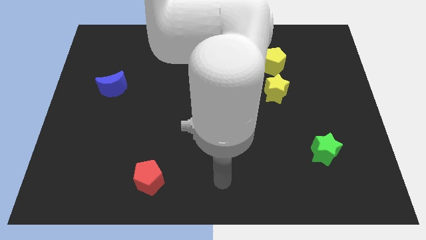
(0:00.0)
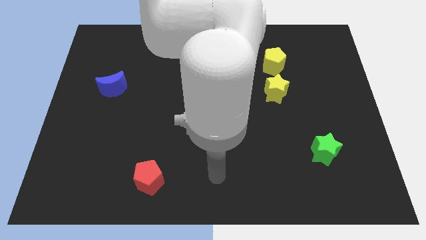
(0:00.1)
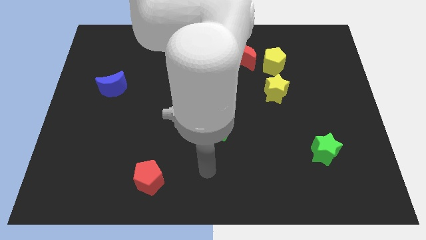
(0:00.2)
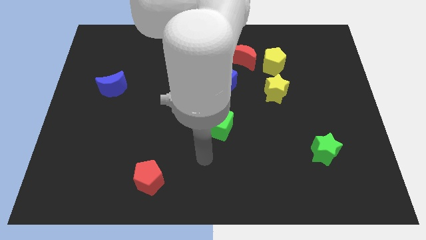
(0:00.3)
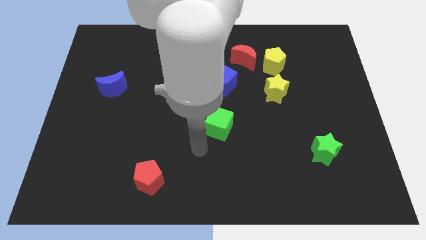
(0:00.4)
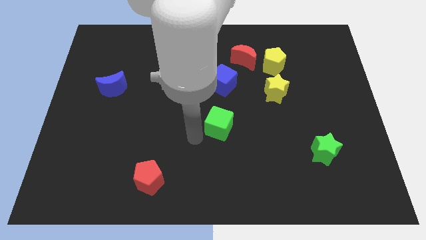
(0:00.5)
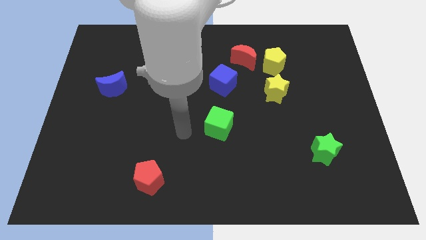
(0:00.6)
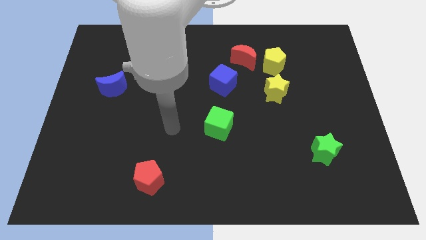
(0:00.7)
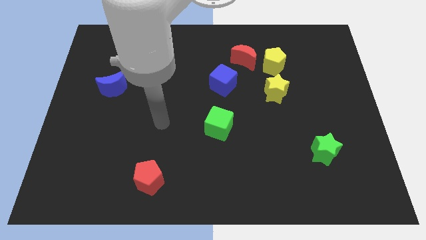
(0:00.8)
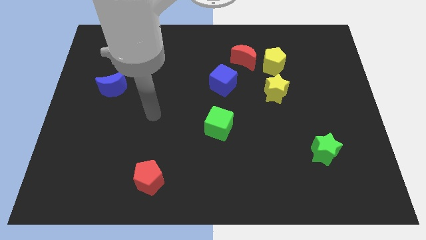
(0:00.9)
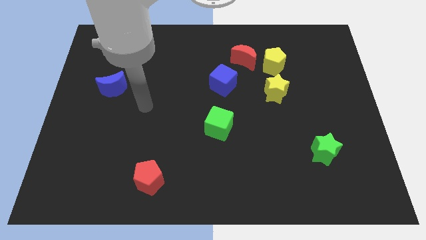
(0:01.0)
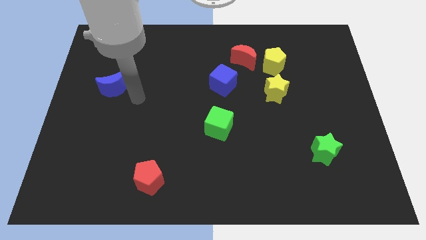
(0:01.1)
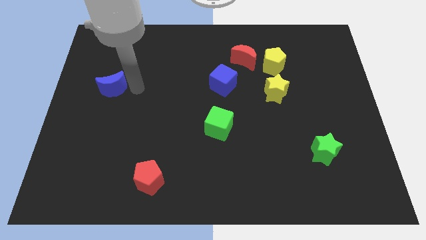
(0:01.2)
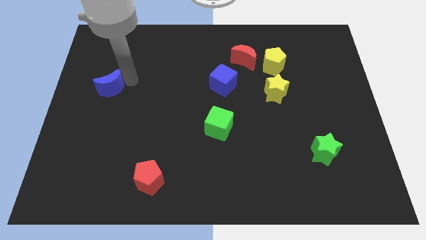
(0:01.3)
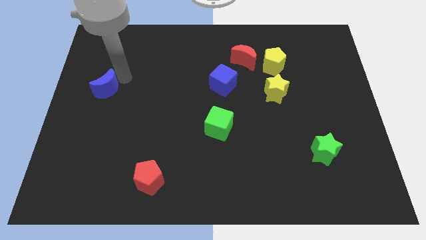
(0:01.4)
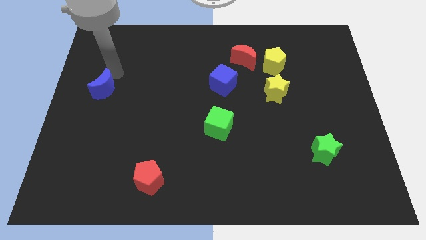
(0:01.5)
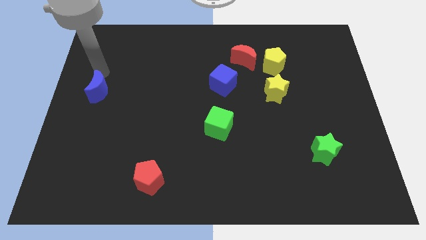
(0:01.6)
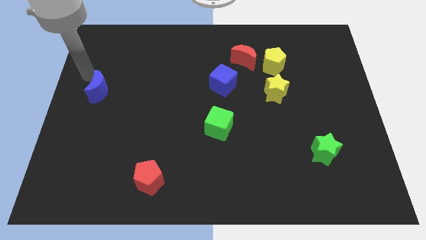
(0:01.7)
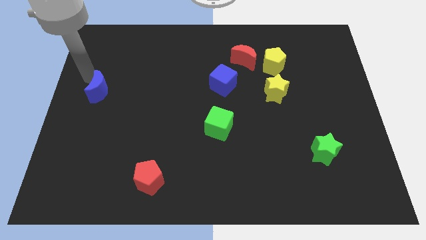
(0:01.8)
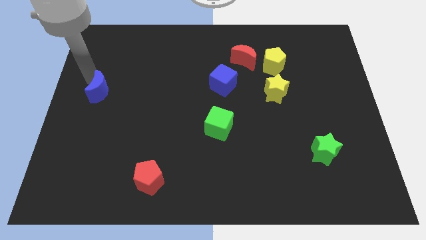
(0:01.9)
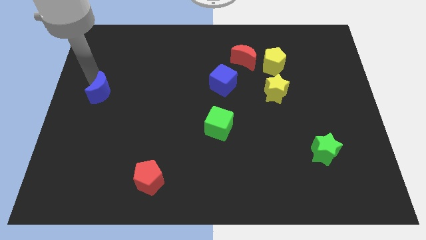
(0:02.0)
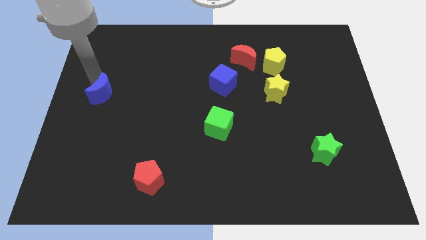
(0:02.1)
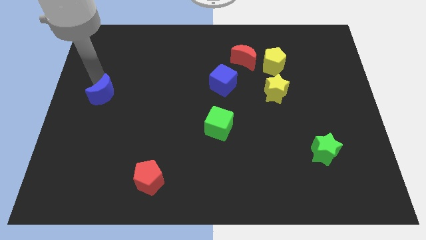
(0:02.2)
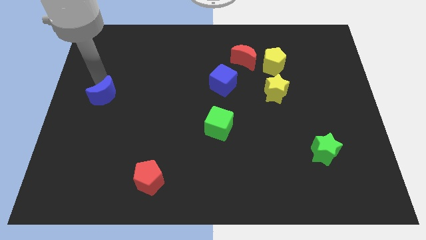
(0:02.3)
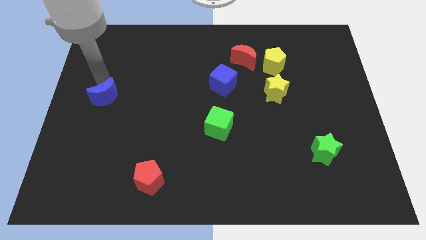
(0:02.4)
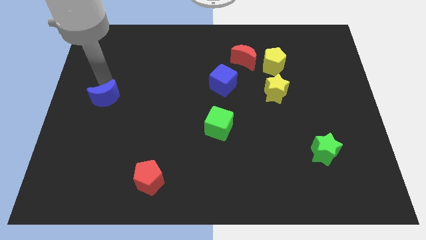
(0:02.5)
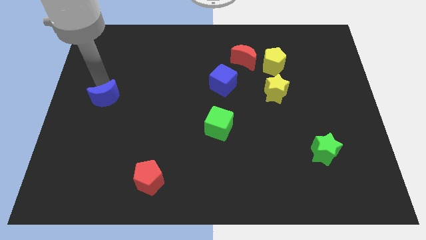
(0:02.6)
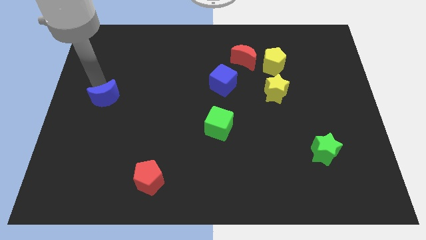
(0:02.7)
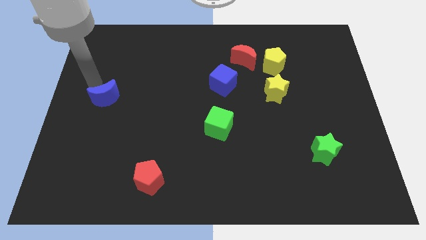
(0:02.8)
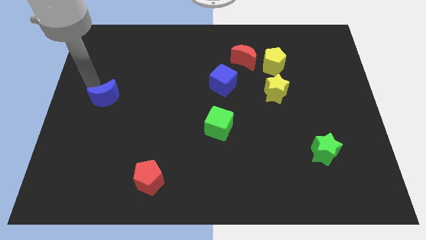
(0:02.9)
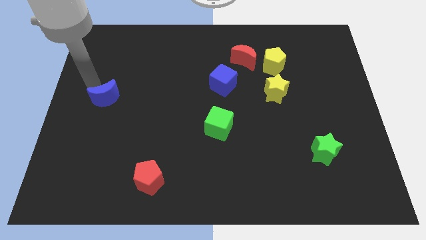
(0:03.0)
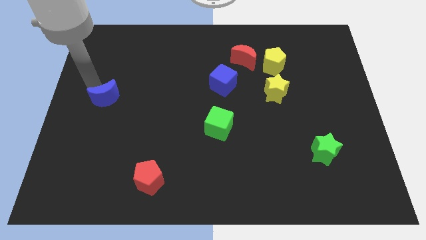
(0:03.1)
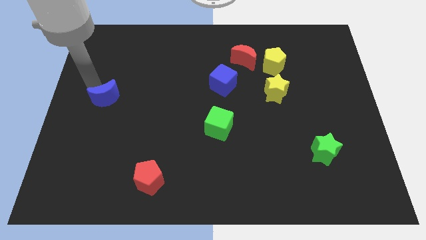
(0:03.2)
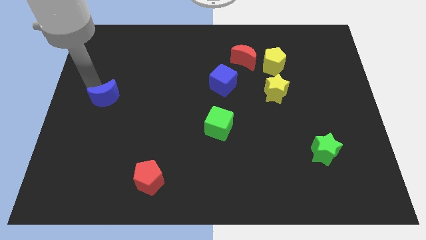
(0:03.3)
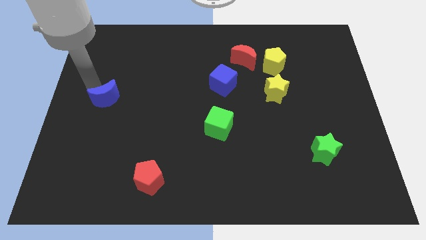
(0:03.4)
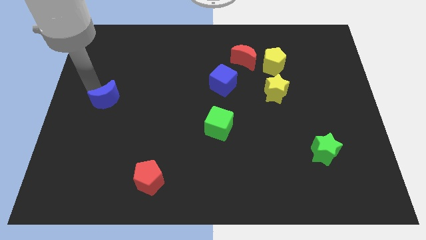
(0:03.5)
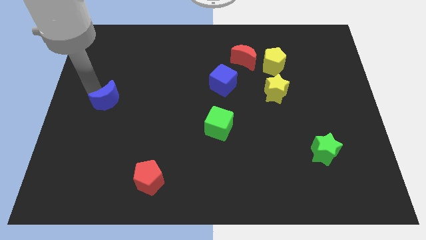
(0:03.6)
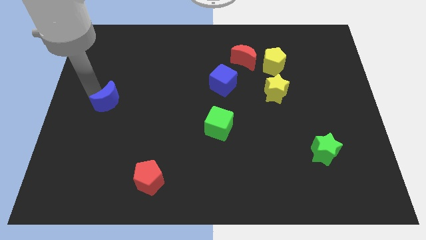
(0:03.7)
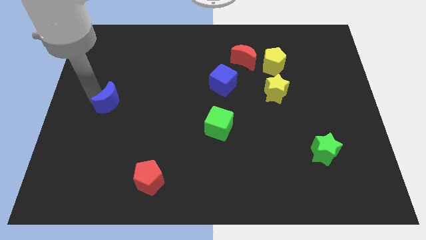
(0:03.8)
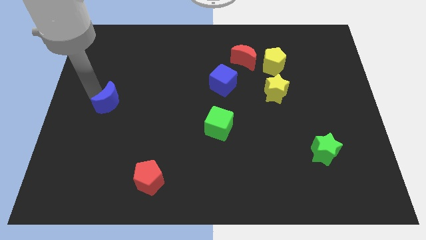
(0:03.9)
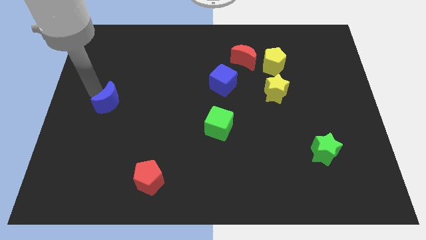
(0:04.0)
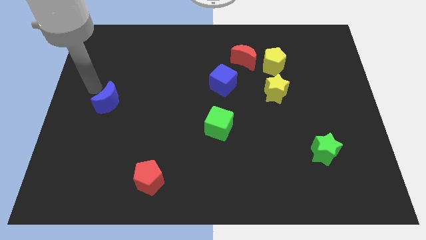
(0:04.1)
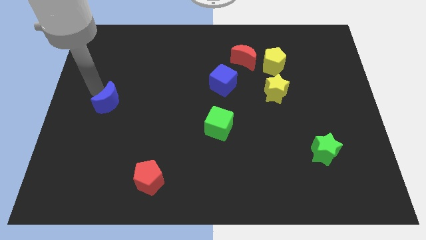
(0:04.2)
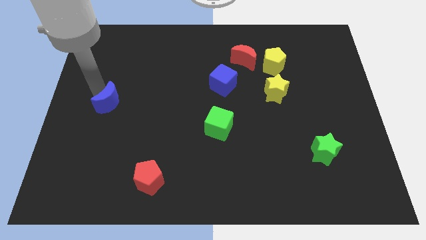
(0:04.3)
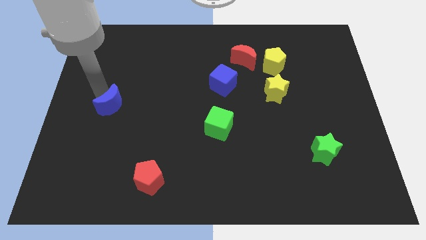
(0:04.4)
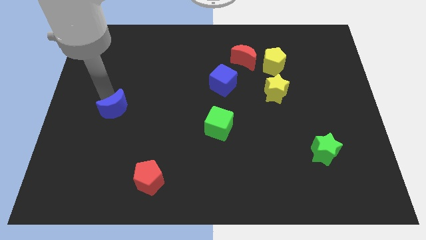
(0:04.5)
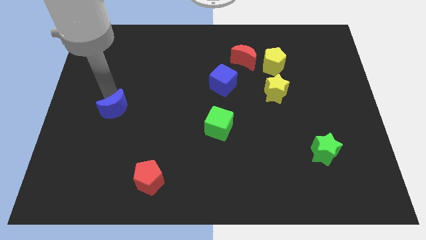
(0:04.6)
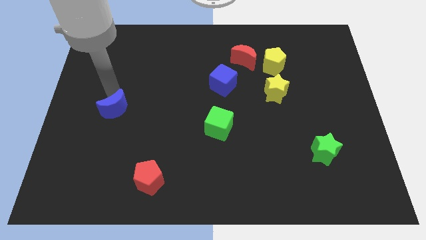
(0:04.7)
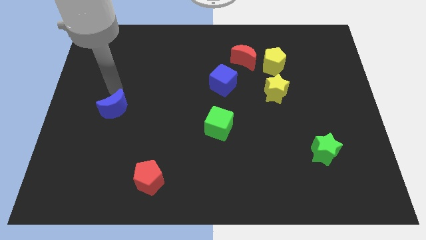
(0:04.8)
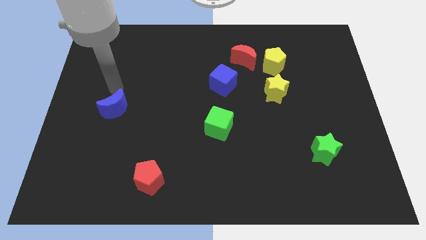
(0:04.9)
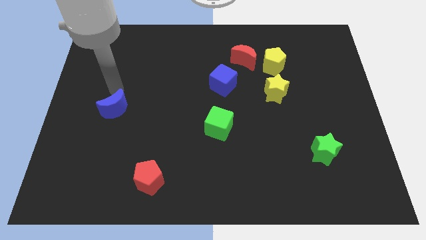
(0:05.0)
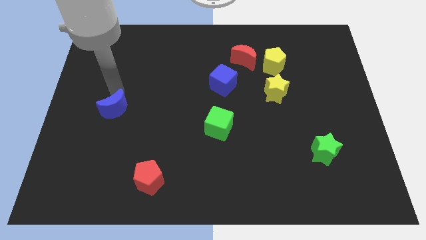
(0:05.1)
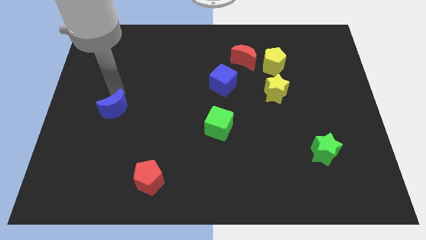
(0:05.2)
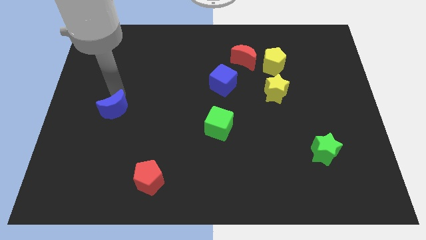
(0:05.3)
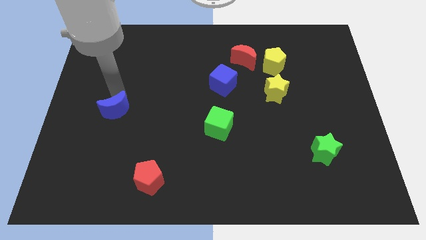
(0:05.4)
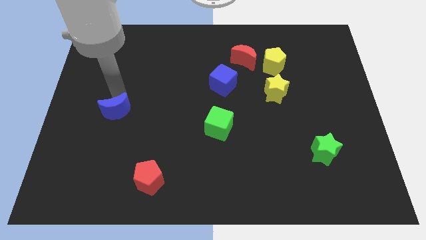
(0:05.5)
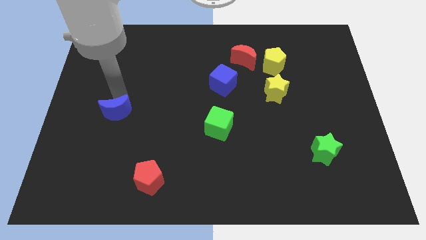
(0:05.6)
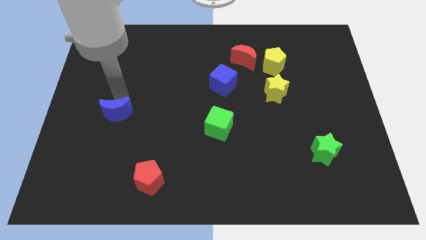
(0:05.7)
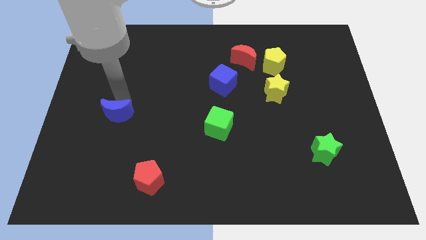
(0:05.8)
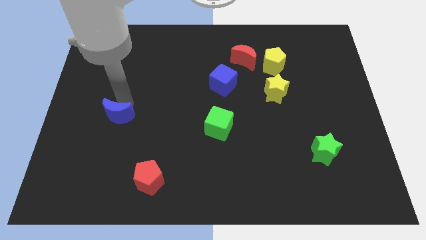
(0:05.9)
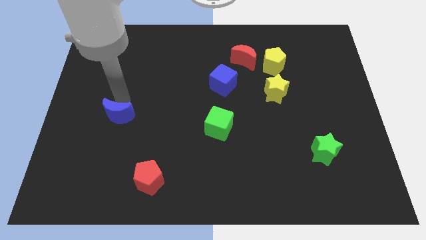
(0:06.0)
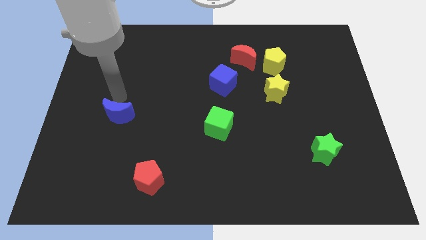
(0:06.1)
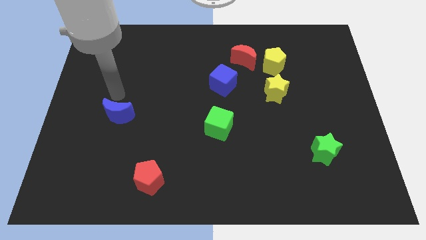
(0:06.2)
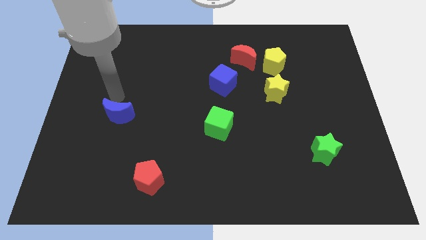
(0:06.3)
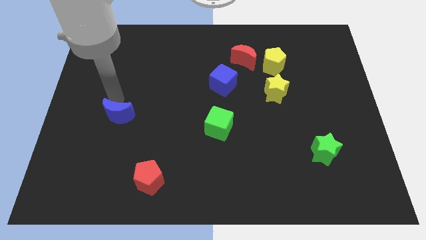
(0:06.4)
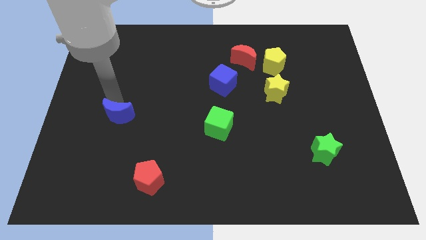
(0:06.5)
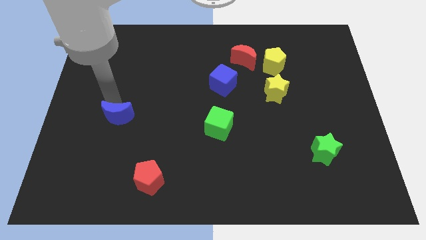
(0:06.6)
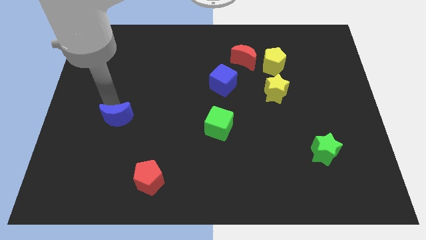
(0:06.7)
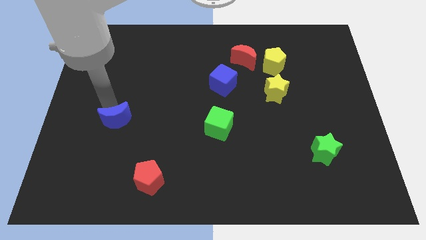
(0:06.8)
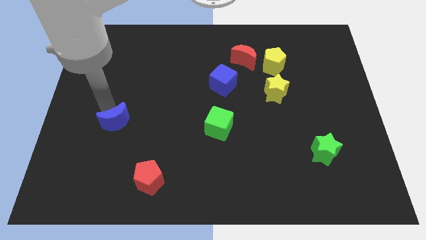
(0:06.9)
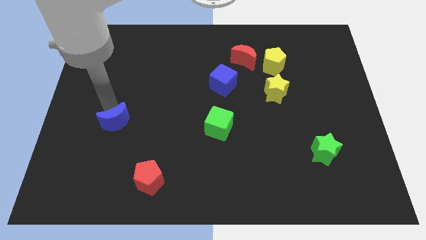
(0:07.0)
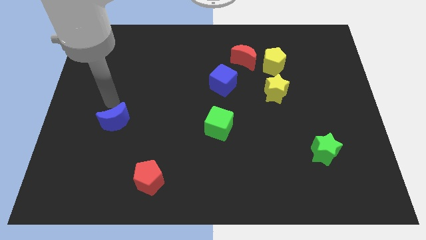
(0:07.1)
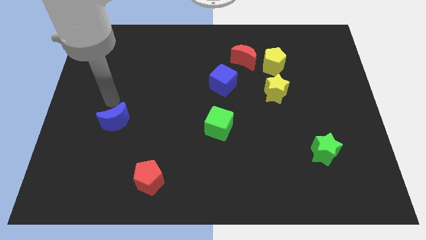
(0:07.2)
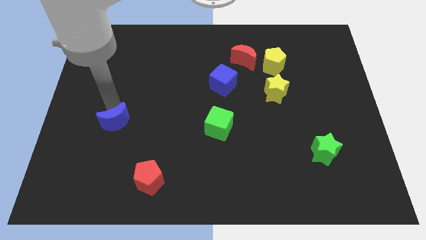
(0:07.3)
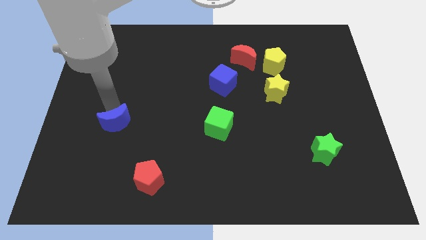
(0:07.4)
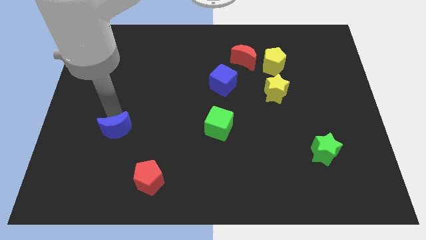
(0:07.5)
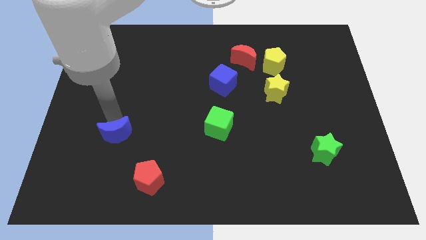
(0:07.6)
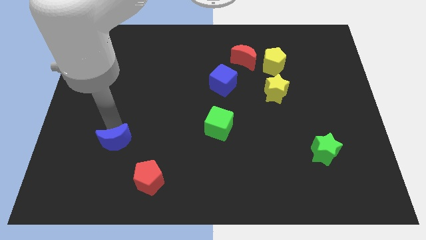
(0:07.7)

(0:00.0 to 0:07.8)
put the blue moon to the top left of the red pentagon
